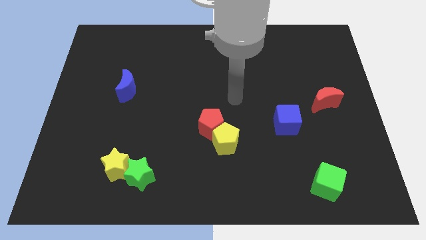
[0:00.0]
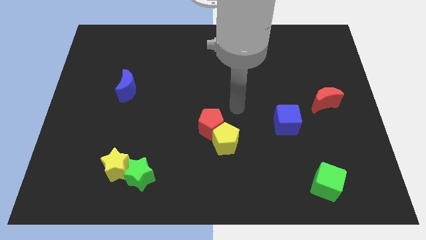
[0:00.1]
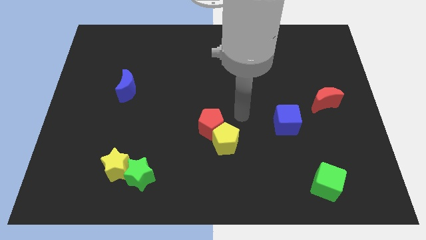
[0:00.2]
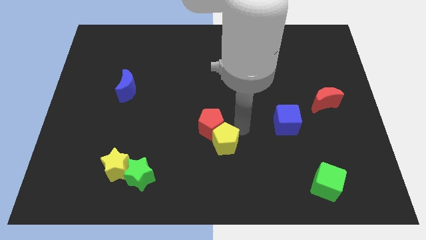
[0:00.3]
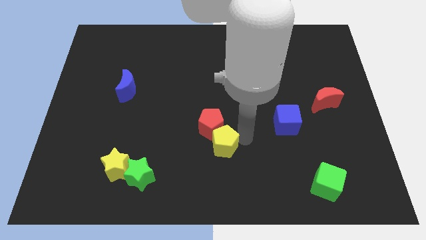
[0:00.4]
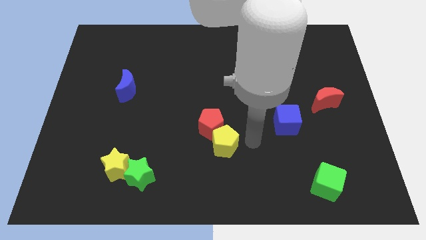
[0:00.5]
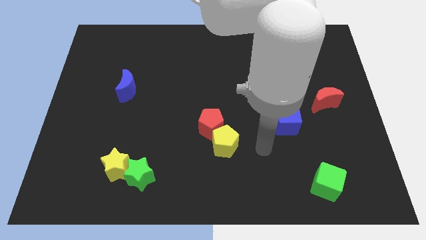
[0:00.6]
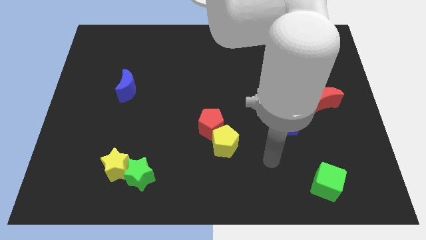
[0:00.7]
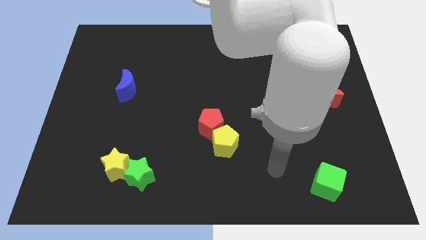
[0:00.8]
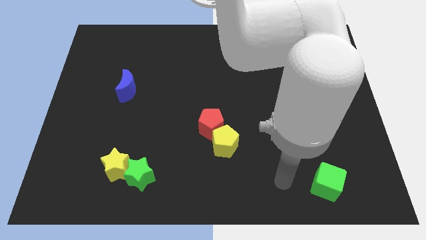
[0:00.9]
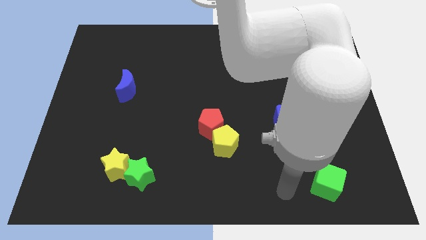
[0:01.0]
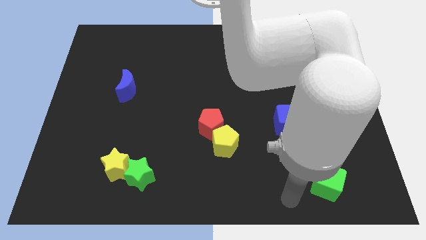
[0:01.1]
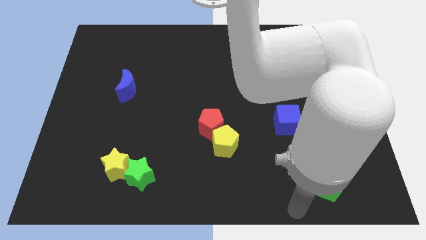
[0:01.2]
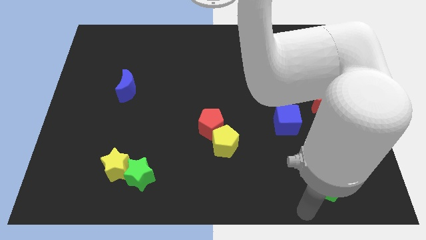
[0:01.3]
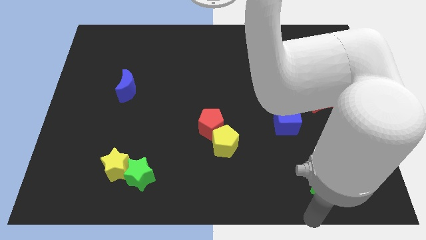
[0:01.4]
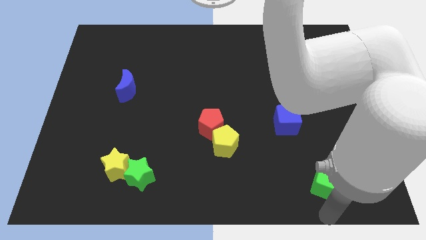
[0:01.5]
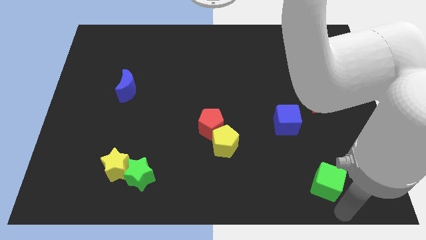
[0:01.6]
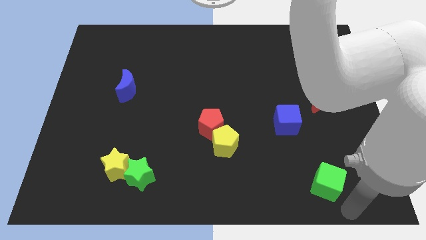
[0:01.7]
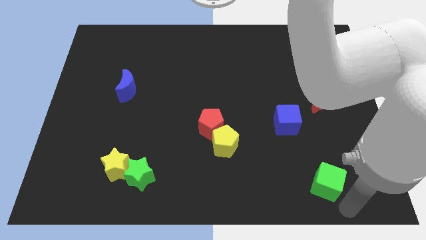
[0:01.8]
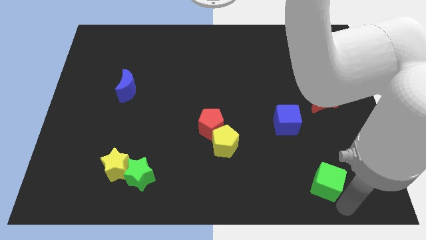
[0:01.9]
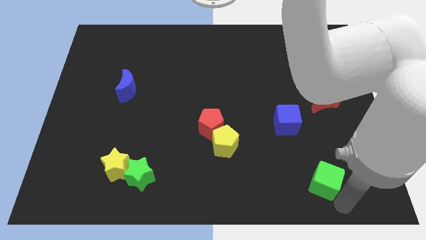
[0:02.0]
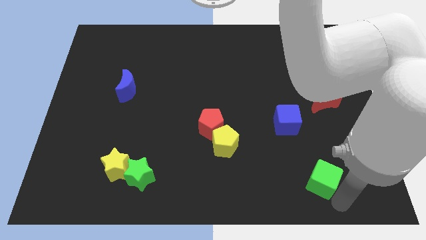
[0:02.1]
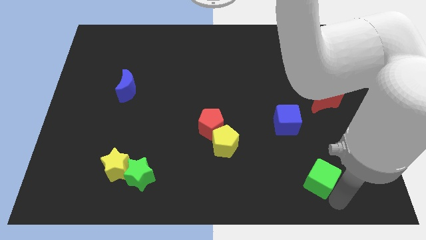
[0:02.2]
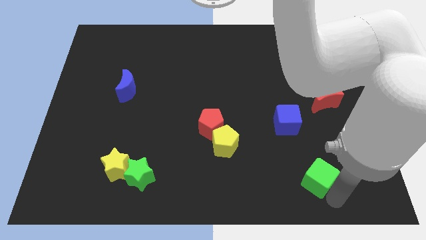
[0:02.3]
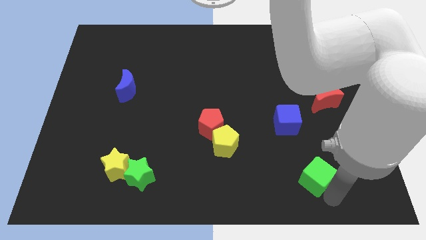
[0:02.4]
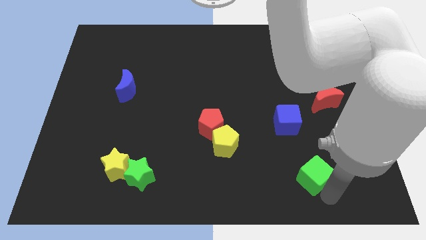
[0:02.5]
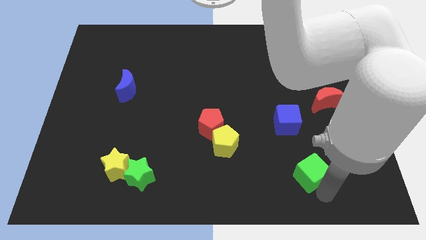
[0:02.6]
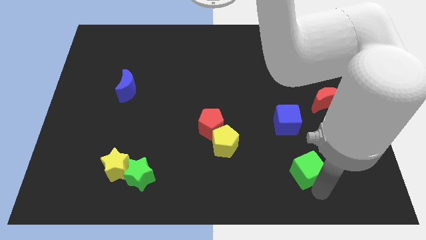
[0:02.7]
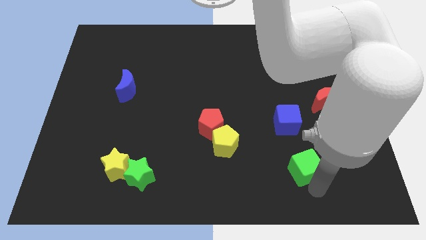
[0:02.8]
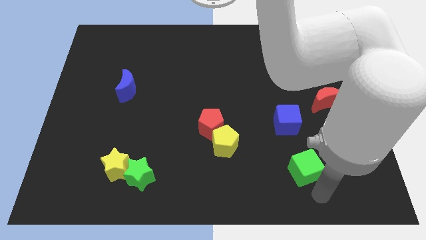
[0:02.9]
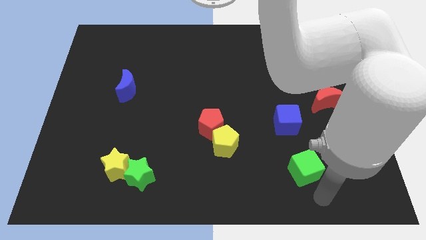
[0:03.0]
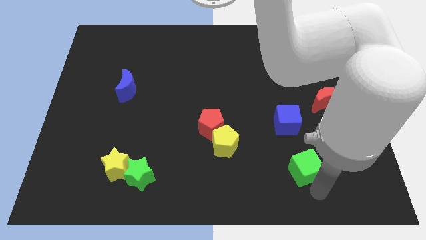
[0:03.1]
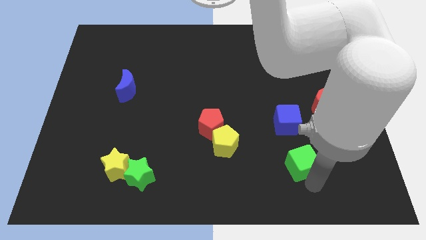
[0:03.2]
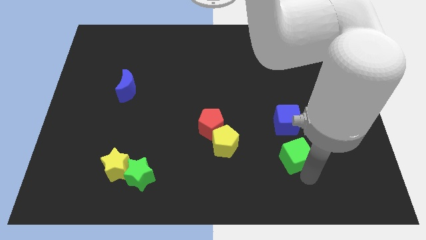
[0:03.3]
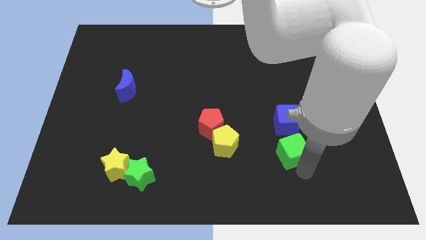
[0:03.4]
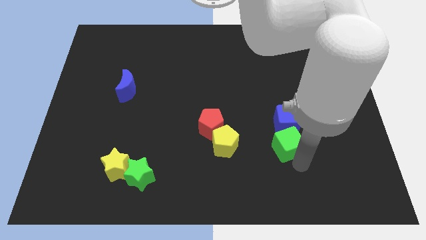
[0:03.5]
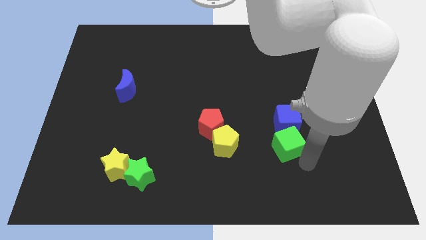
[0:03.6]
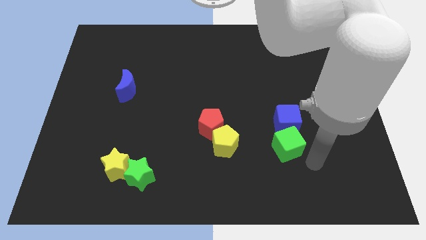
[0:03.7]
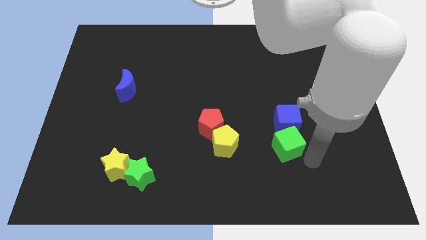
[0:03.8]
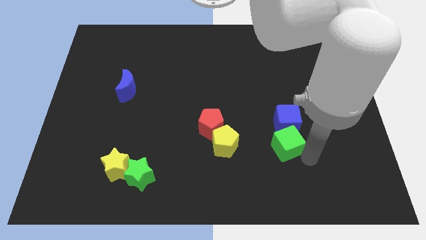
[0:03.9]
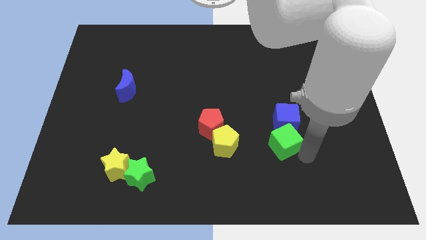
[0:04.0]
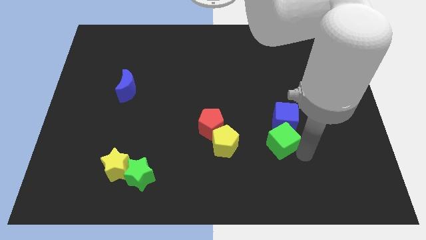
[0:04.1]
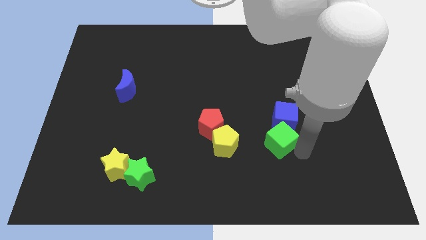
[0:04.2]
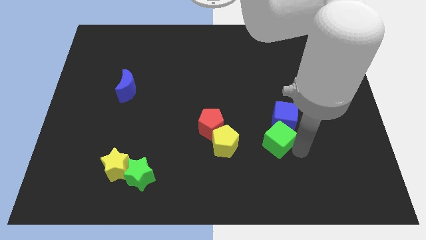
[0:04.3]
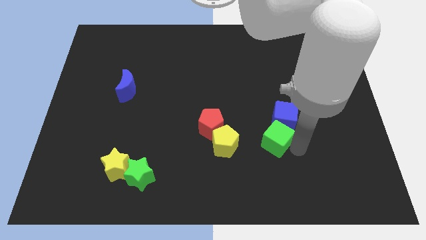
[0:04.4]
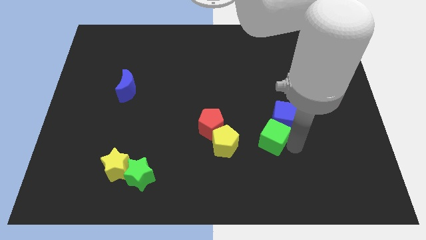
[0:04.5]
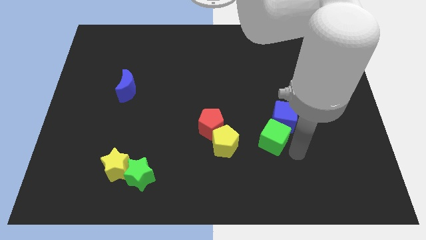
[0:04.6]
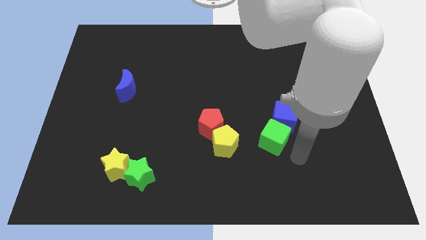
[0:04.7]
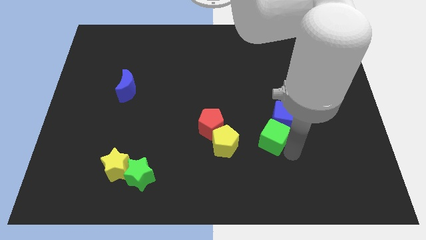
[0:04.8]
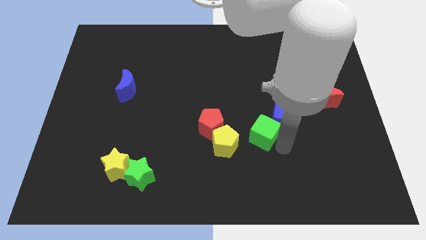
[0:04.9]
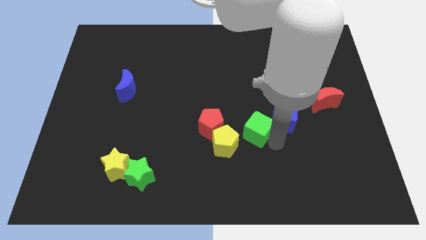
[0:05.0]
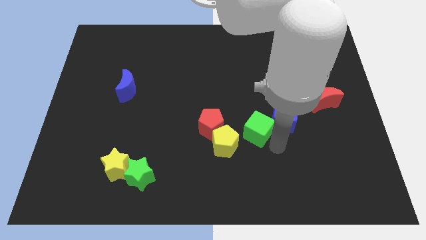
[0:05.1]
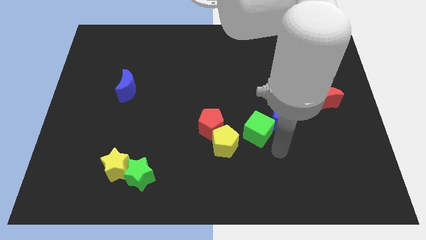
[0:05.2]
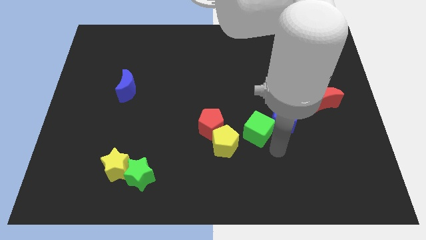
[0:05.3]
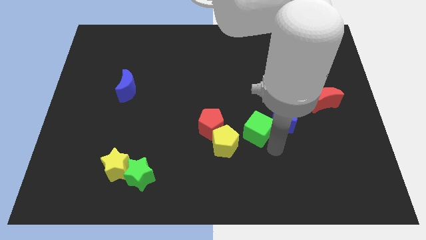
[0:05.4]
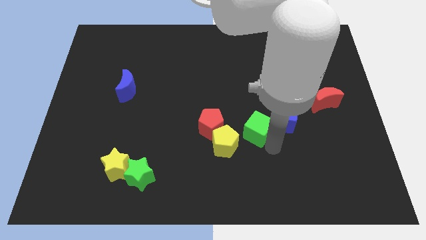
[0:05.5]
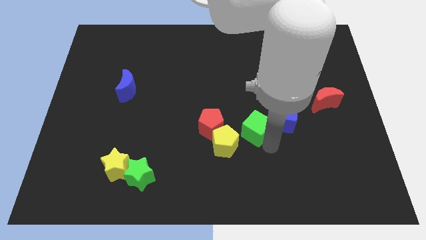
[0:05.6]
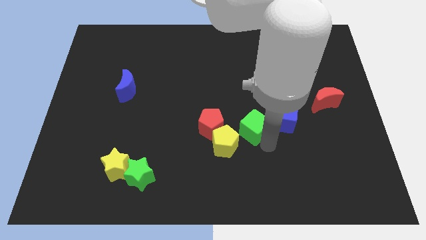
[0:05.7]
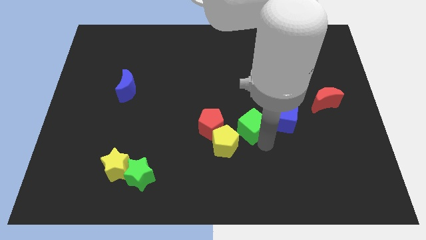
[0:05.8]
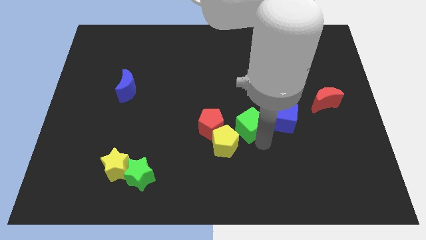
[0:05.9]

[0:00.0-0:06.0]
push the green cube up and then to the left

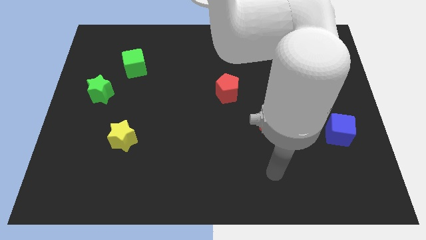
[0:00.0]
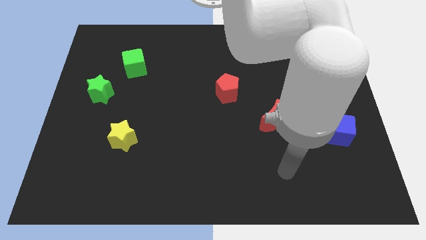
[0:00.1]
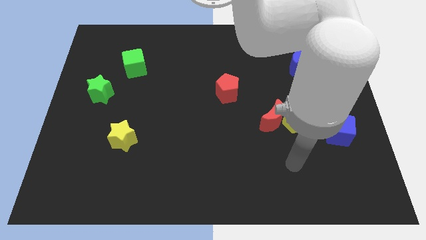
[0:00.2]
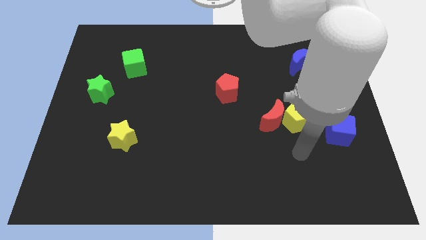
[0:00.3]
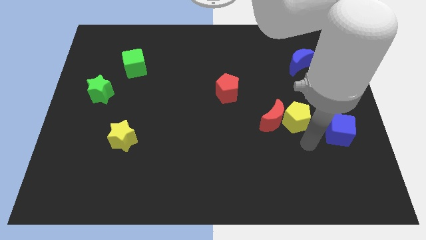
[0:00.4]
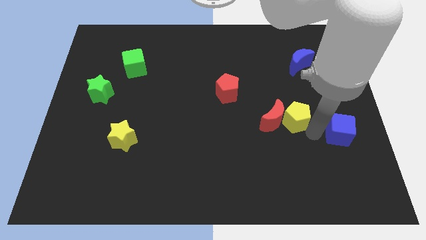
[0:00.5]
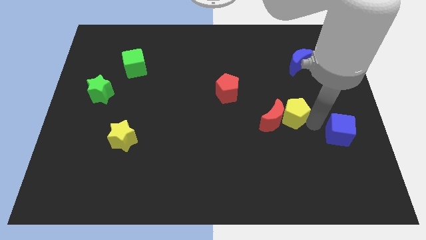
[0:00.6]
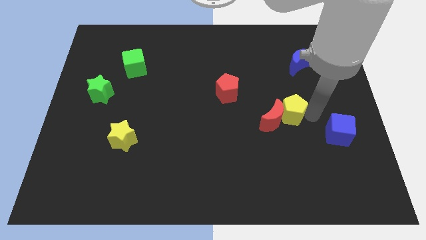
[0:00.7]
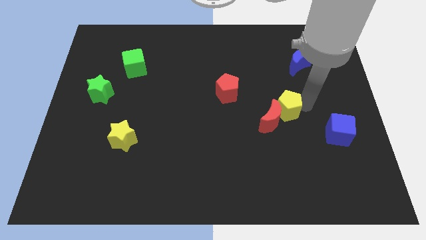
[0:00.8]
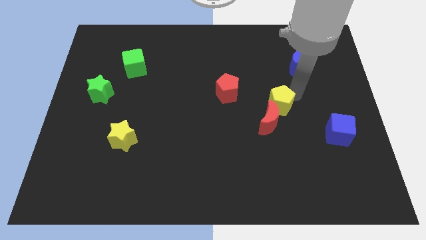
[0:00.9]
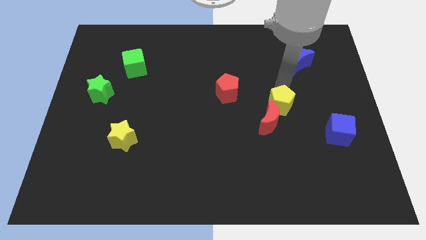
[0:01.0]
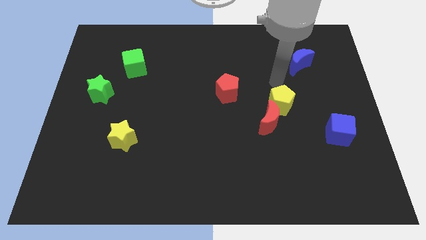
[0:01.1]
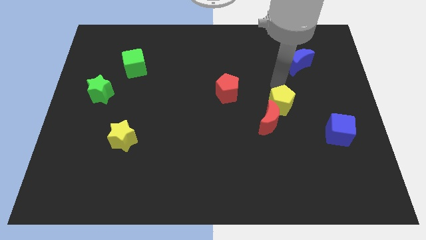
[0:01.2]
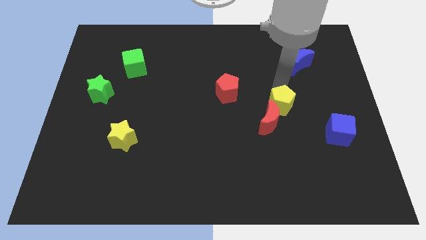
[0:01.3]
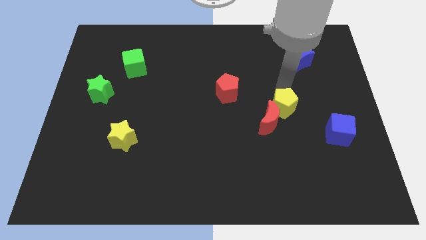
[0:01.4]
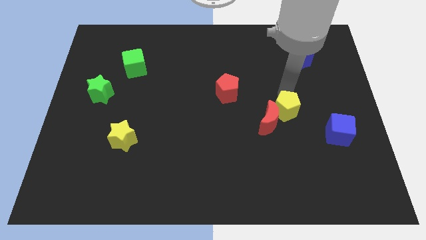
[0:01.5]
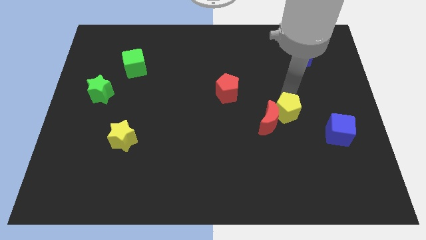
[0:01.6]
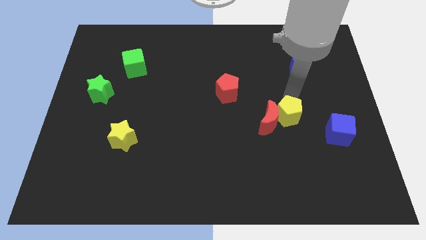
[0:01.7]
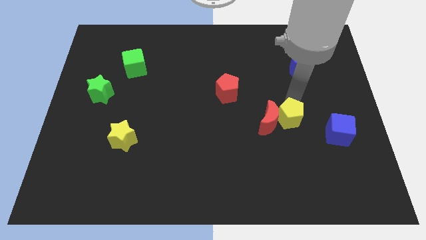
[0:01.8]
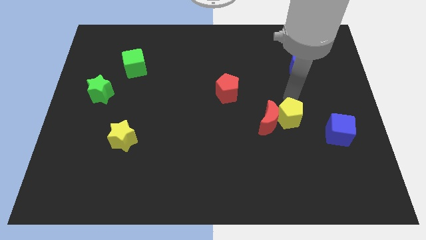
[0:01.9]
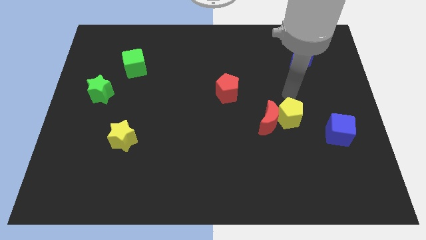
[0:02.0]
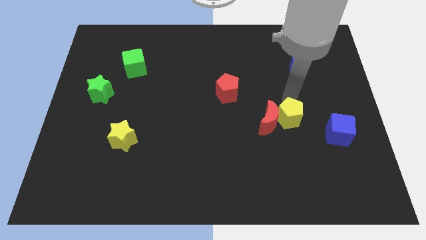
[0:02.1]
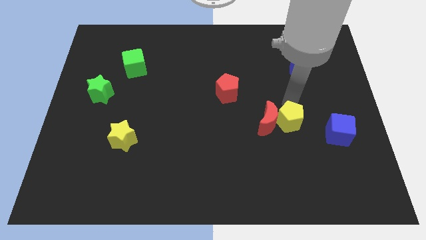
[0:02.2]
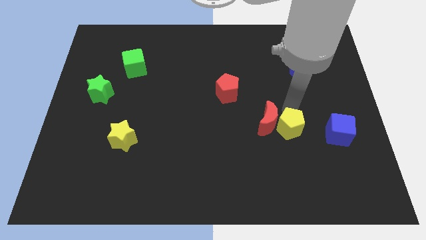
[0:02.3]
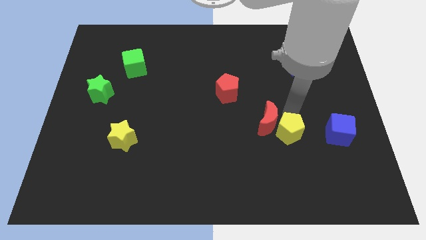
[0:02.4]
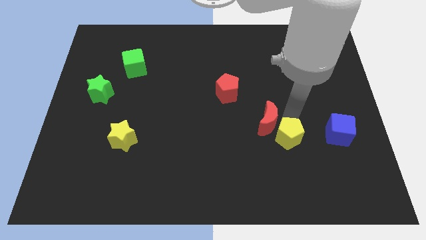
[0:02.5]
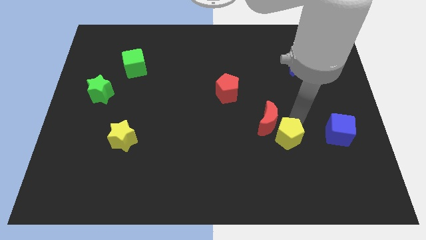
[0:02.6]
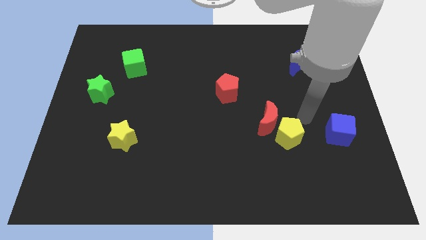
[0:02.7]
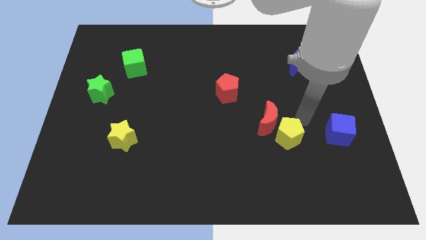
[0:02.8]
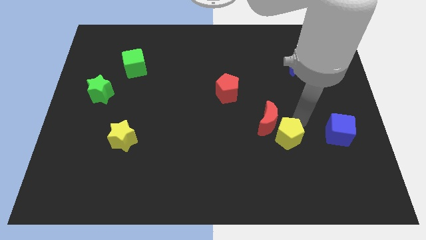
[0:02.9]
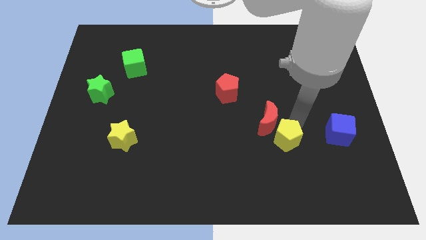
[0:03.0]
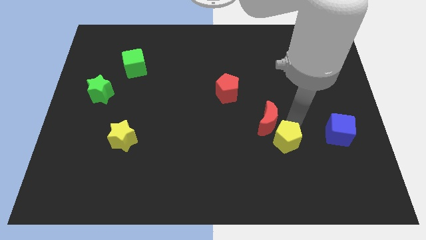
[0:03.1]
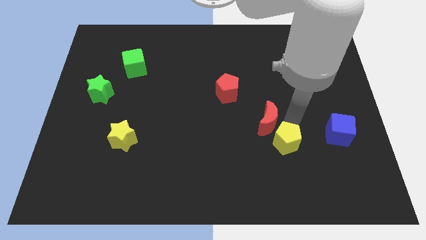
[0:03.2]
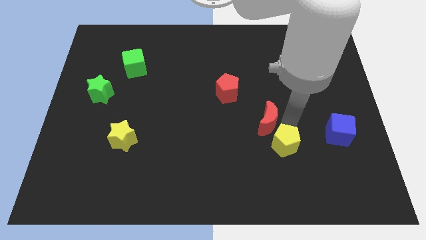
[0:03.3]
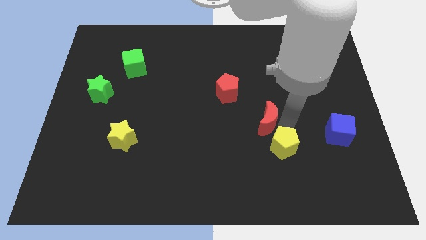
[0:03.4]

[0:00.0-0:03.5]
slightly move the yellow pentagon diagonally down and to the left
